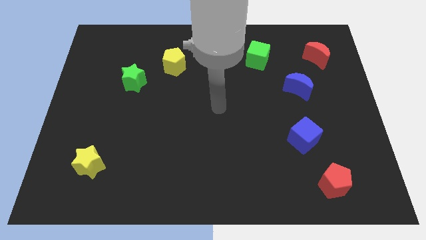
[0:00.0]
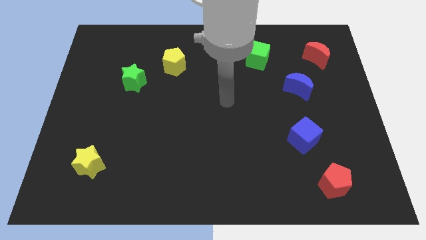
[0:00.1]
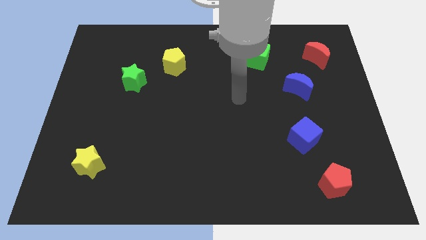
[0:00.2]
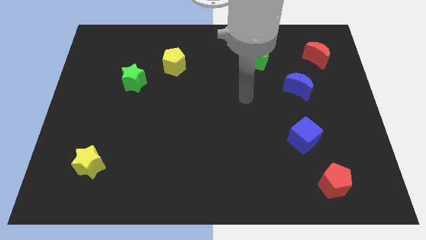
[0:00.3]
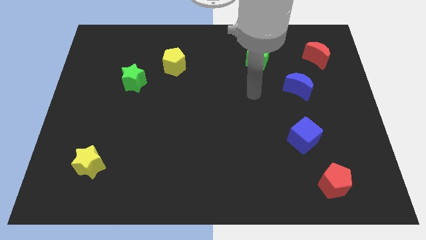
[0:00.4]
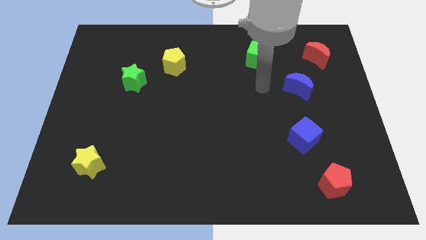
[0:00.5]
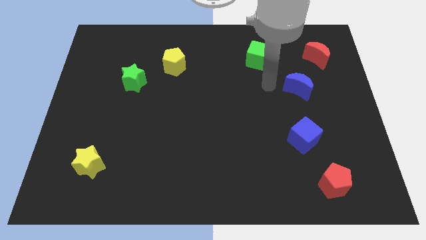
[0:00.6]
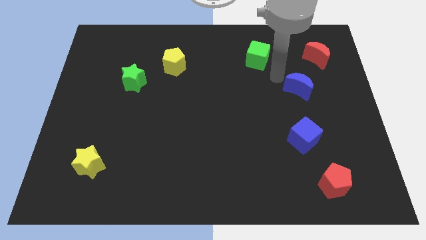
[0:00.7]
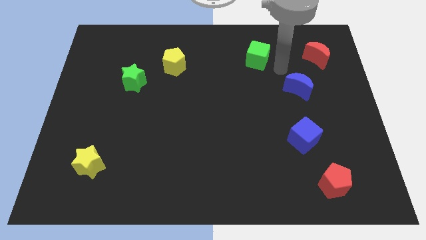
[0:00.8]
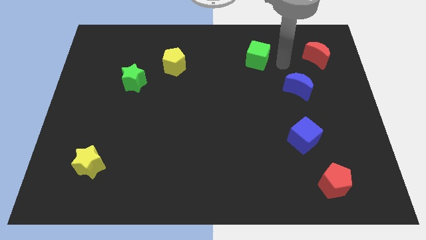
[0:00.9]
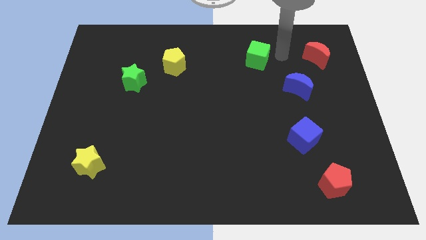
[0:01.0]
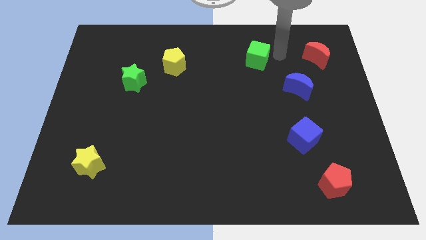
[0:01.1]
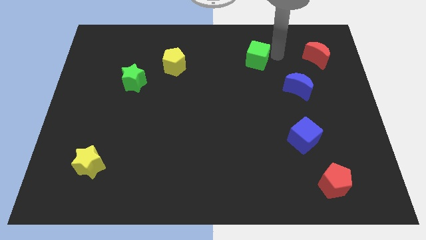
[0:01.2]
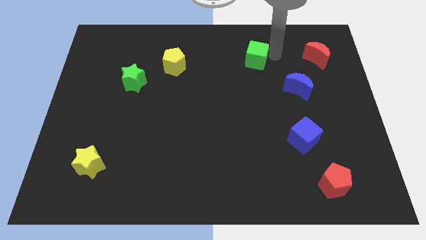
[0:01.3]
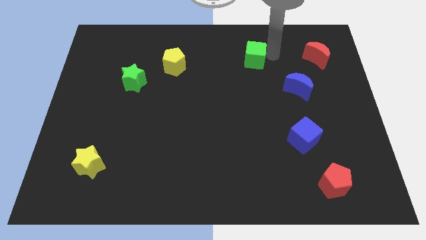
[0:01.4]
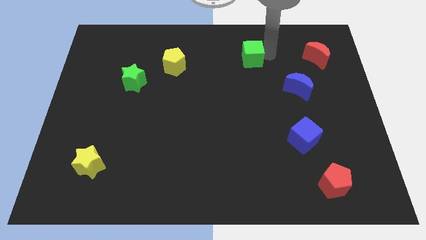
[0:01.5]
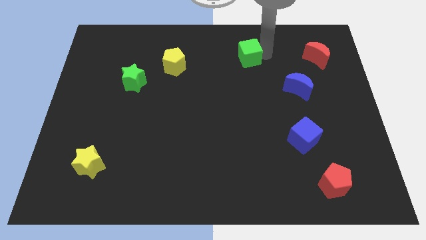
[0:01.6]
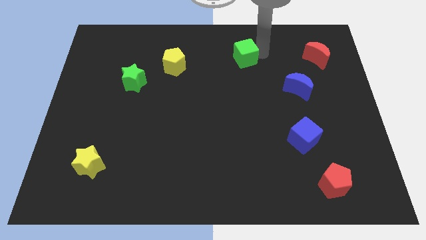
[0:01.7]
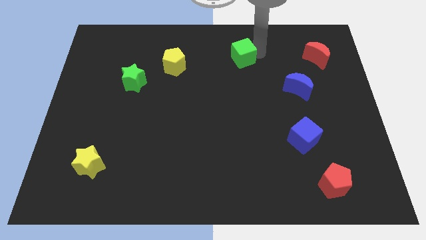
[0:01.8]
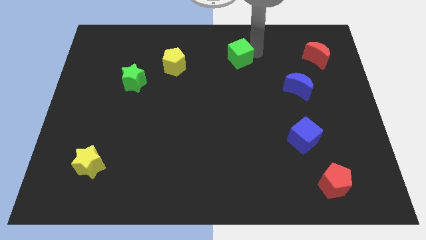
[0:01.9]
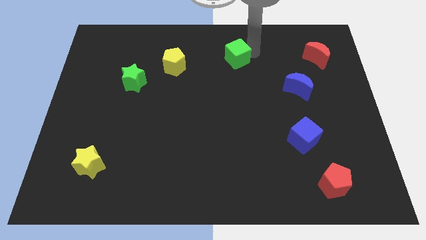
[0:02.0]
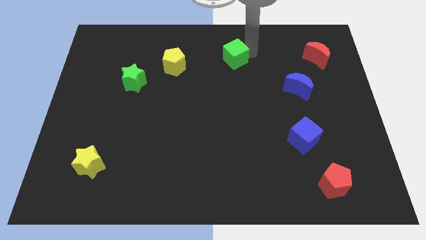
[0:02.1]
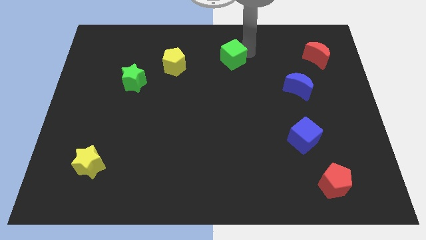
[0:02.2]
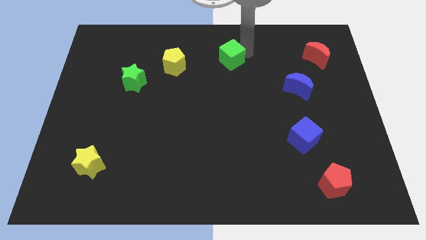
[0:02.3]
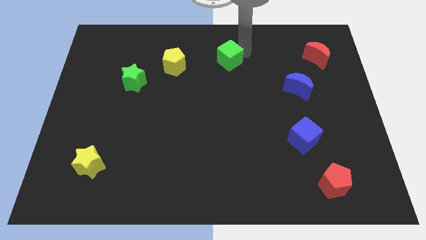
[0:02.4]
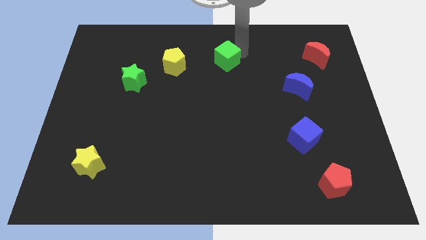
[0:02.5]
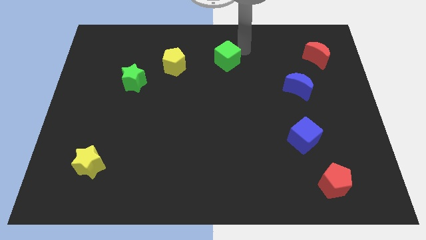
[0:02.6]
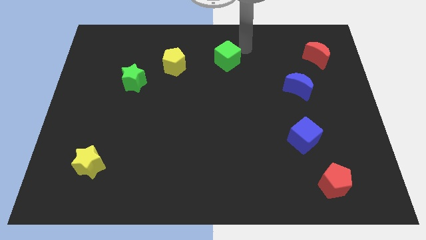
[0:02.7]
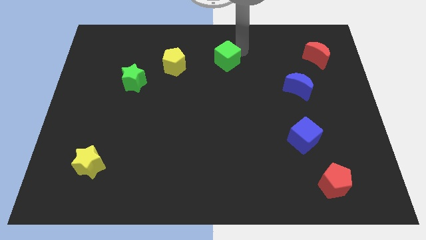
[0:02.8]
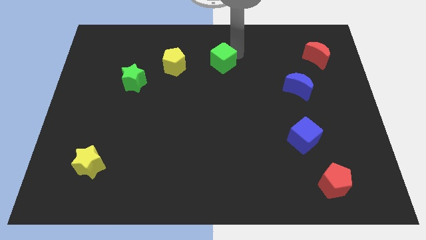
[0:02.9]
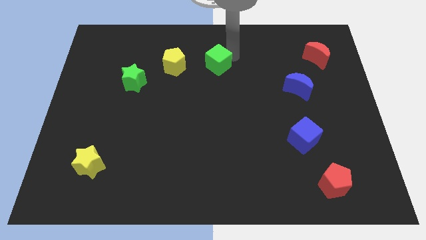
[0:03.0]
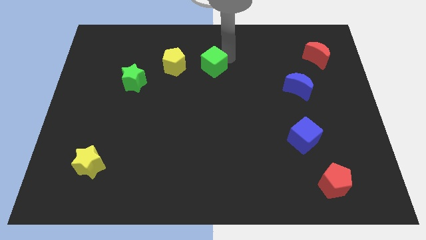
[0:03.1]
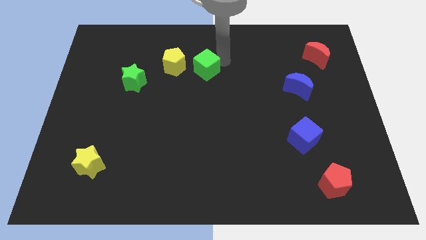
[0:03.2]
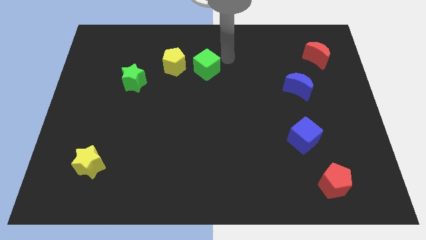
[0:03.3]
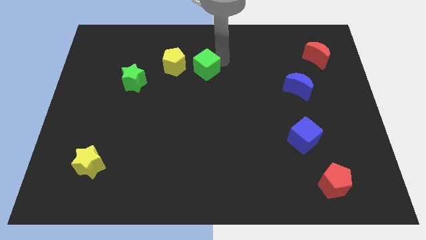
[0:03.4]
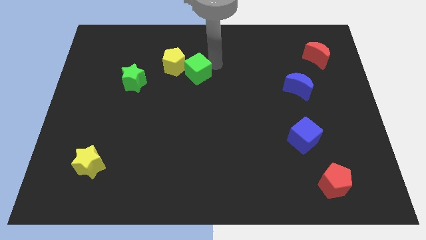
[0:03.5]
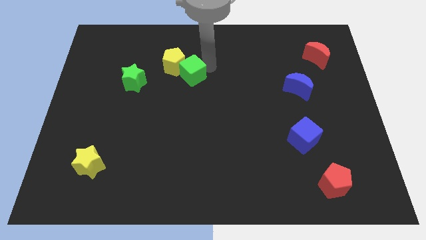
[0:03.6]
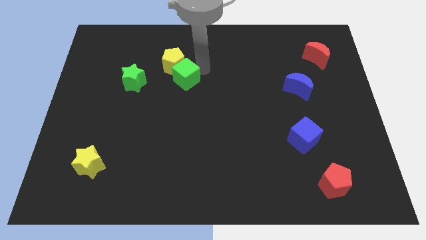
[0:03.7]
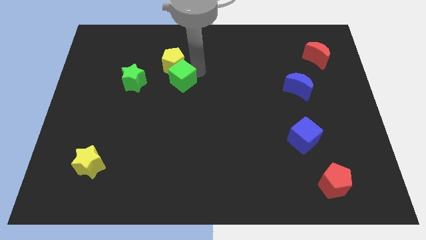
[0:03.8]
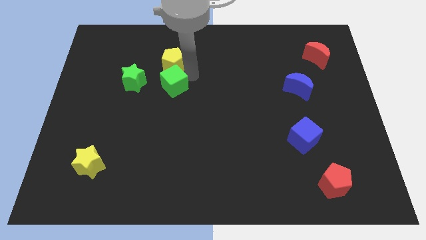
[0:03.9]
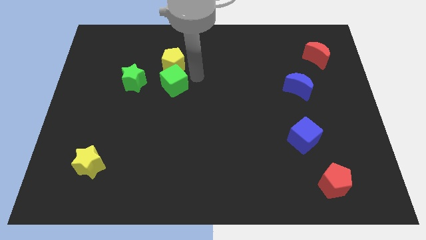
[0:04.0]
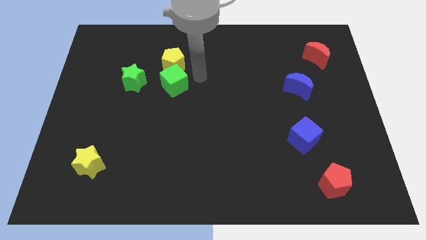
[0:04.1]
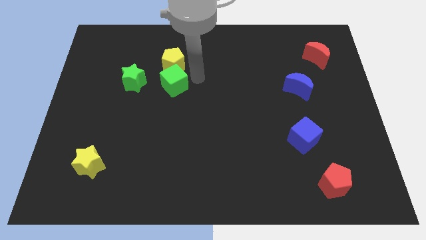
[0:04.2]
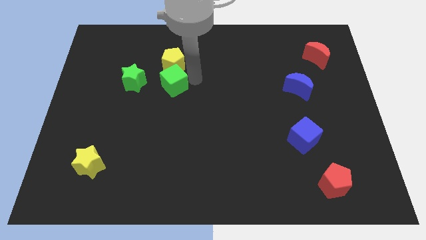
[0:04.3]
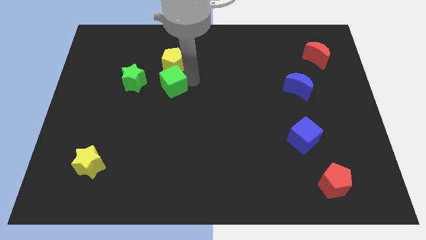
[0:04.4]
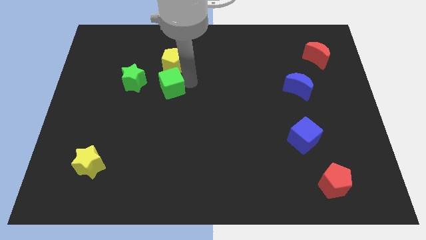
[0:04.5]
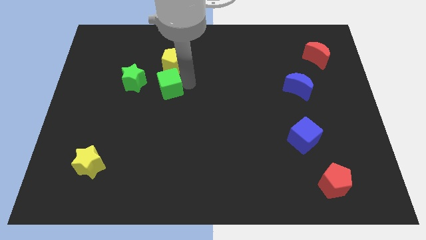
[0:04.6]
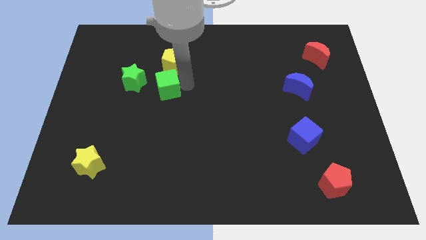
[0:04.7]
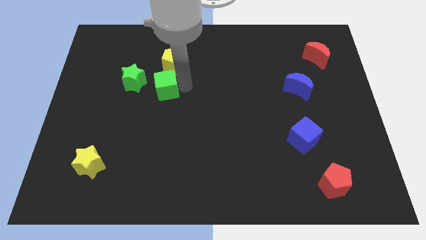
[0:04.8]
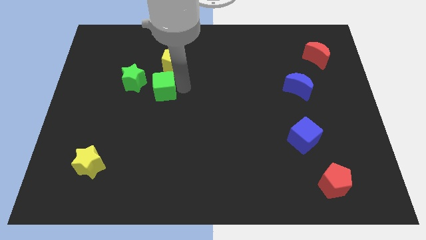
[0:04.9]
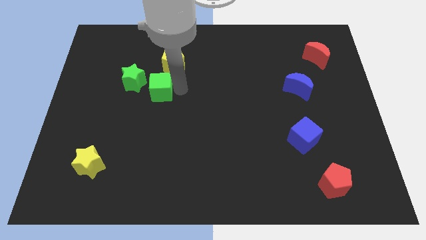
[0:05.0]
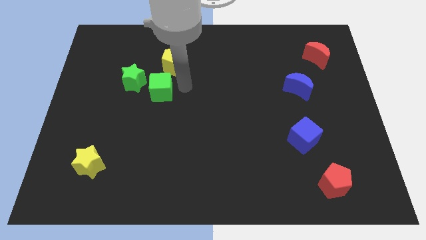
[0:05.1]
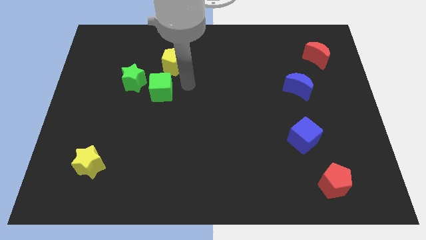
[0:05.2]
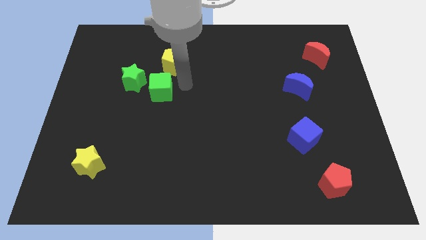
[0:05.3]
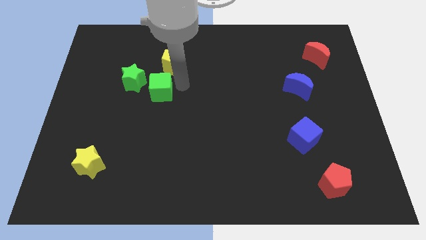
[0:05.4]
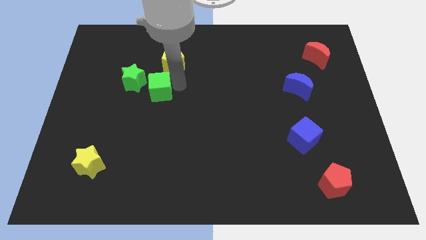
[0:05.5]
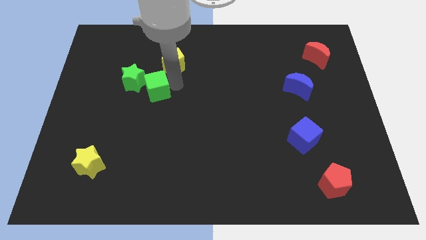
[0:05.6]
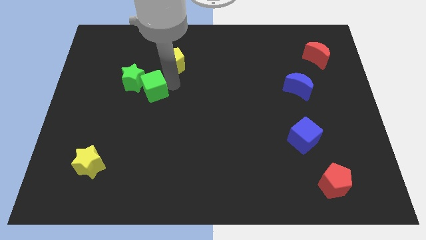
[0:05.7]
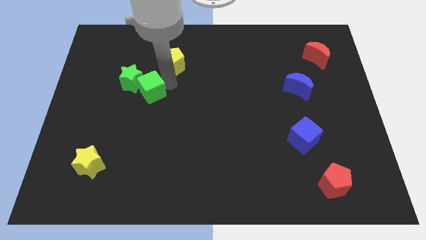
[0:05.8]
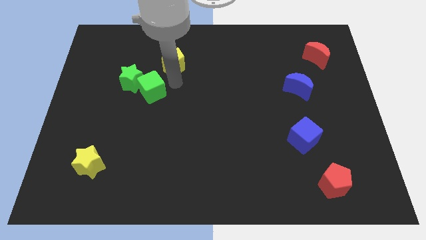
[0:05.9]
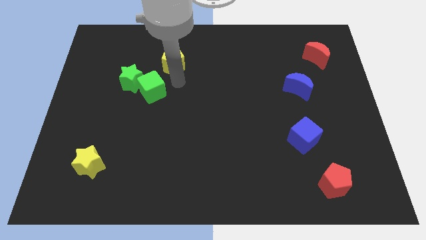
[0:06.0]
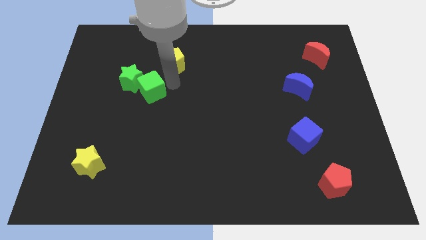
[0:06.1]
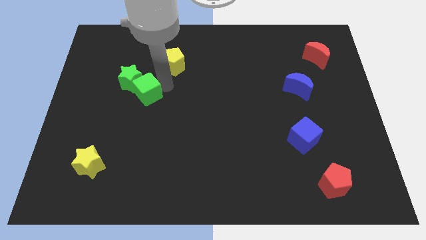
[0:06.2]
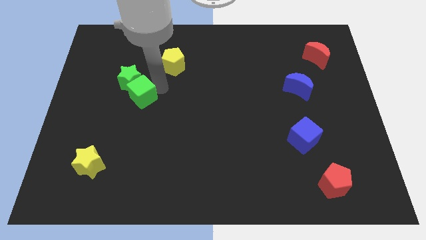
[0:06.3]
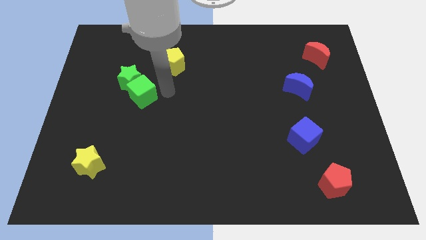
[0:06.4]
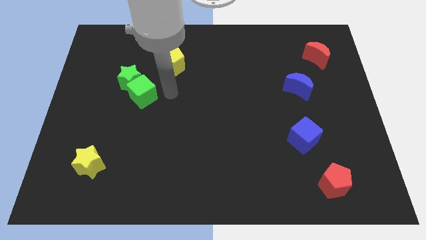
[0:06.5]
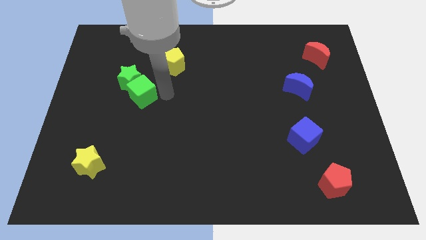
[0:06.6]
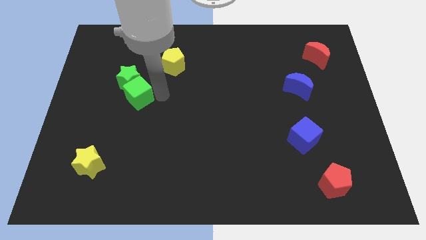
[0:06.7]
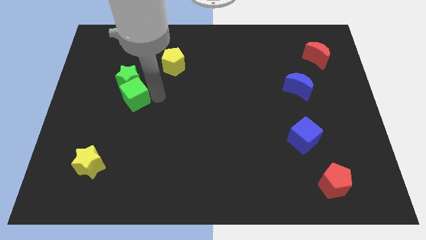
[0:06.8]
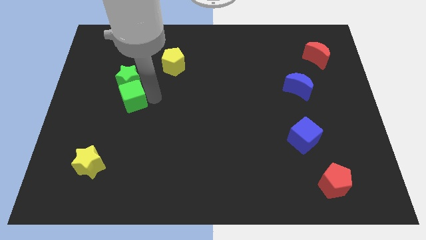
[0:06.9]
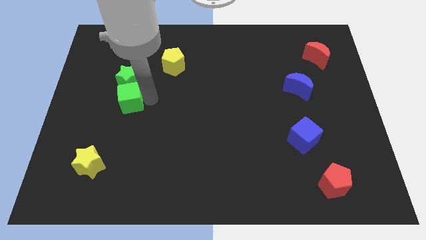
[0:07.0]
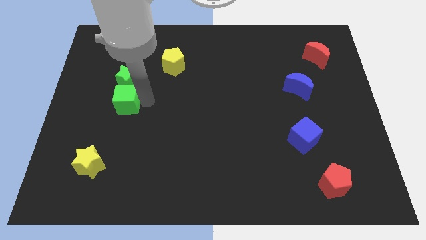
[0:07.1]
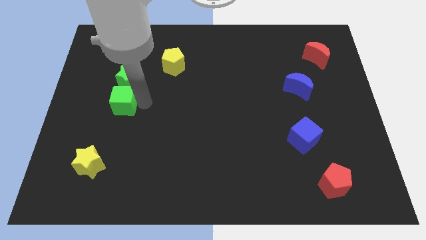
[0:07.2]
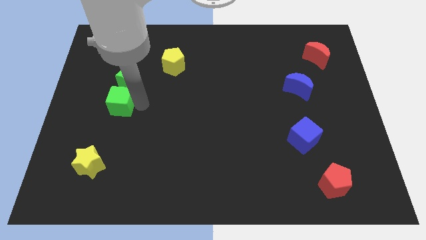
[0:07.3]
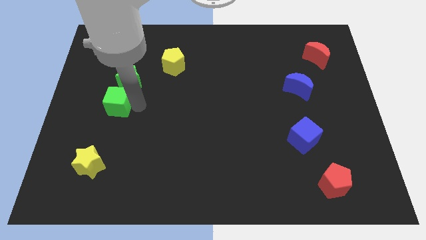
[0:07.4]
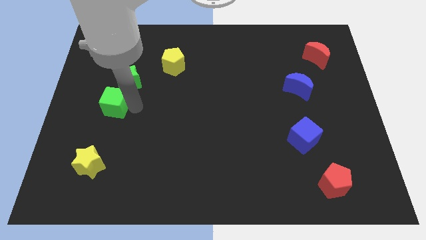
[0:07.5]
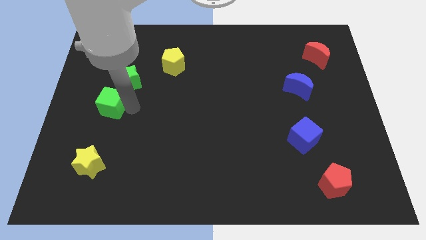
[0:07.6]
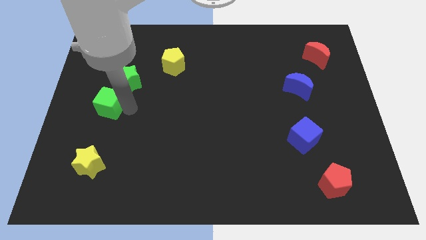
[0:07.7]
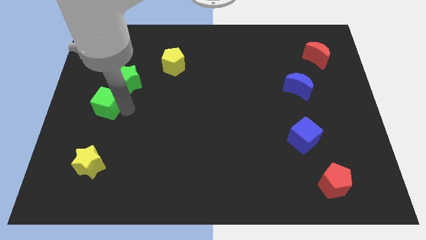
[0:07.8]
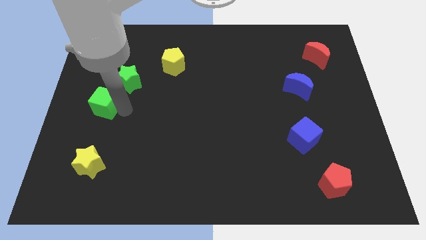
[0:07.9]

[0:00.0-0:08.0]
move the green cube to the left side
